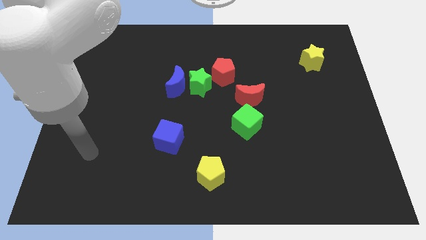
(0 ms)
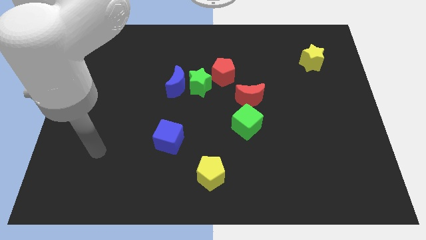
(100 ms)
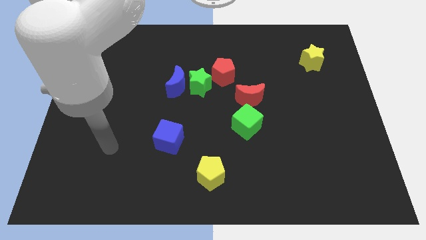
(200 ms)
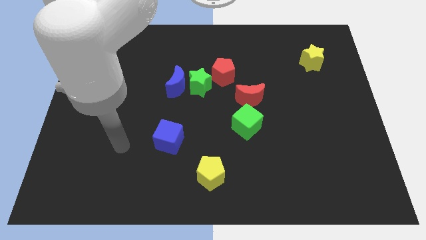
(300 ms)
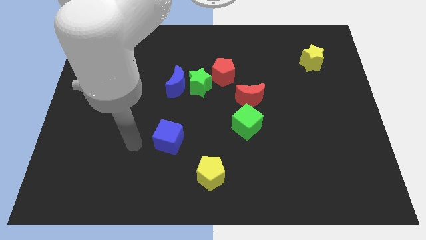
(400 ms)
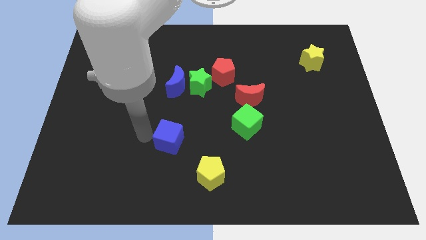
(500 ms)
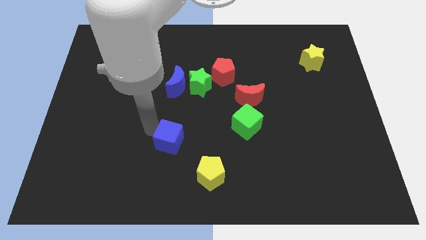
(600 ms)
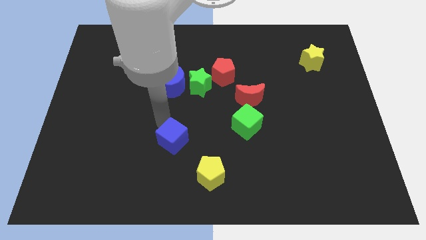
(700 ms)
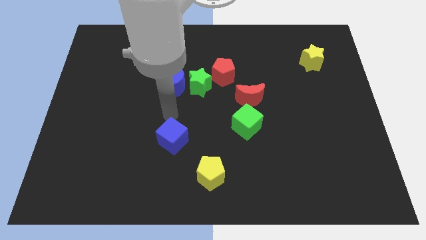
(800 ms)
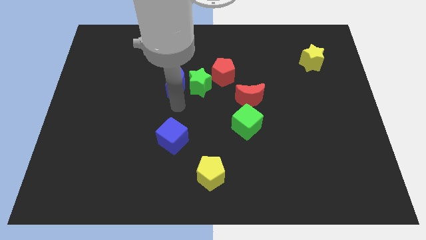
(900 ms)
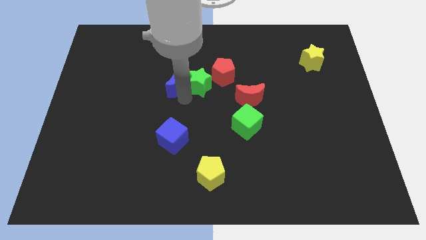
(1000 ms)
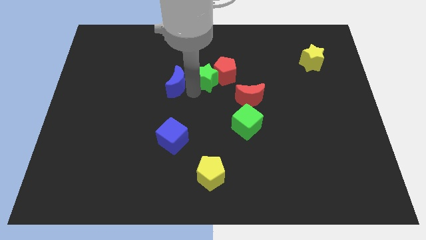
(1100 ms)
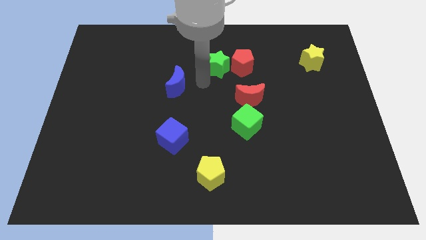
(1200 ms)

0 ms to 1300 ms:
pull the blue moon apart from the green star

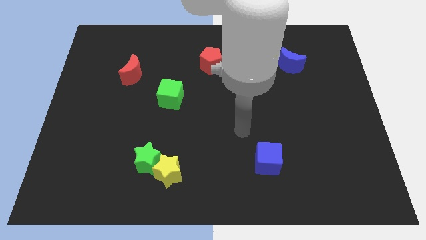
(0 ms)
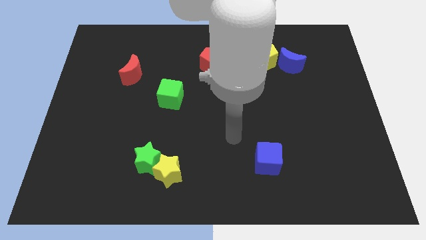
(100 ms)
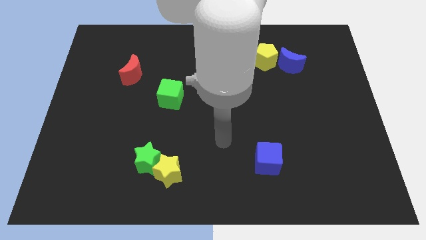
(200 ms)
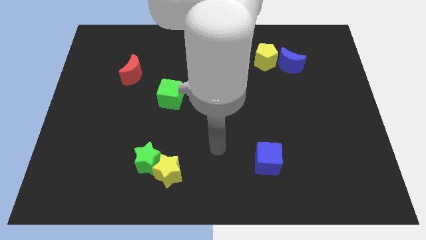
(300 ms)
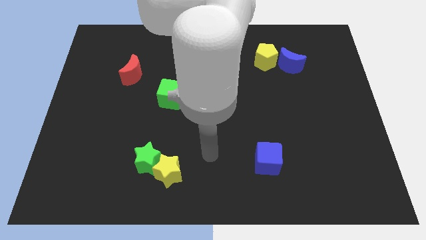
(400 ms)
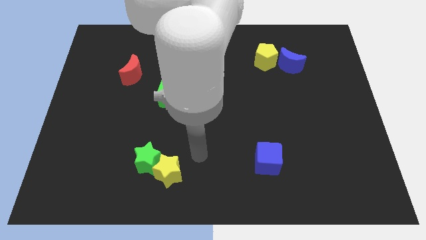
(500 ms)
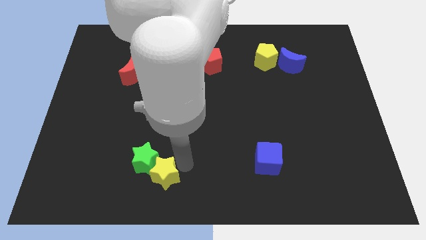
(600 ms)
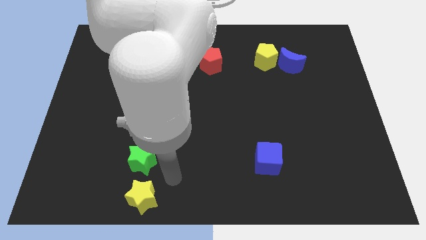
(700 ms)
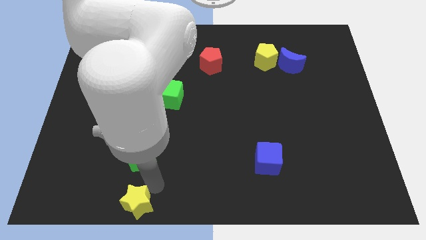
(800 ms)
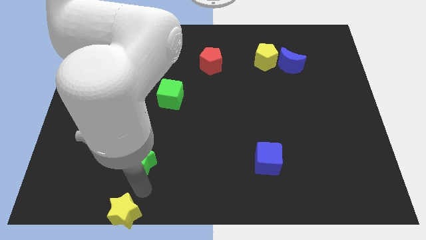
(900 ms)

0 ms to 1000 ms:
separate the green star from the yellow star

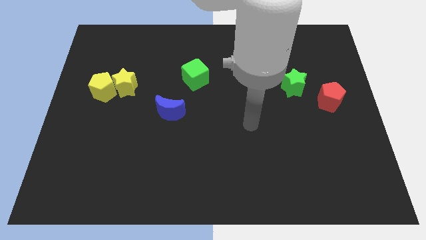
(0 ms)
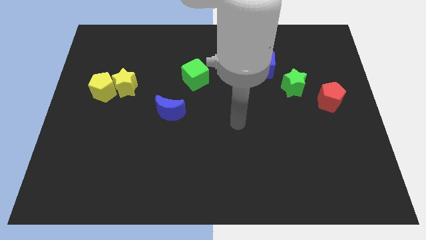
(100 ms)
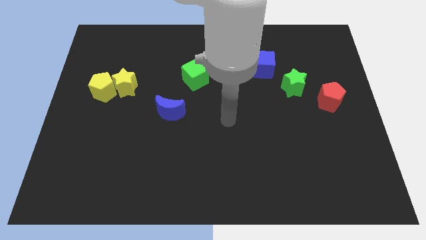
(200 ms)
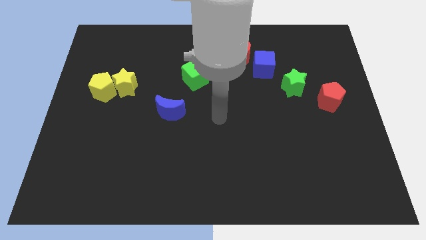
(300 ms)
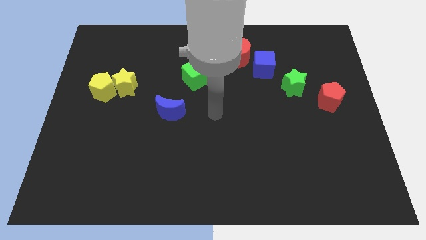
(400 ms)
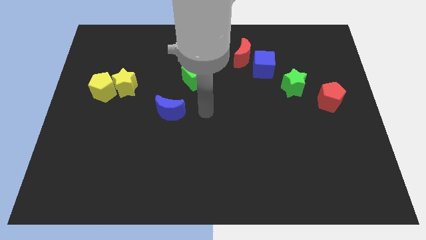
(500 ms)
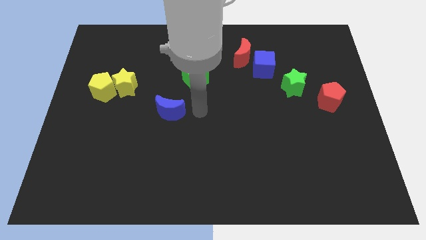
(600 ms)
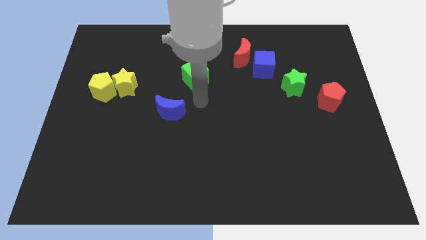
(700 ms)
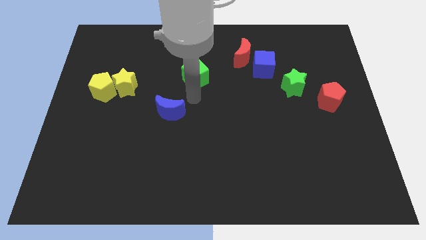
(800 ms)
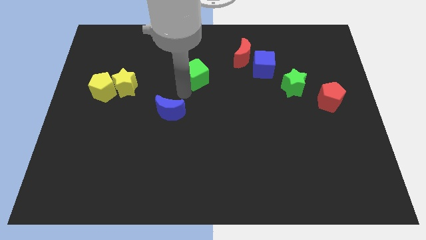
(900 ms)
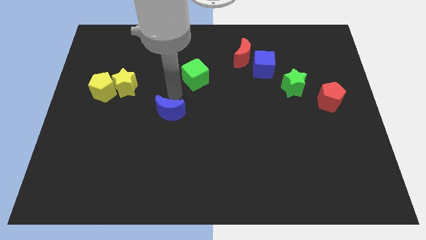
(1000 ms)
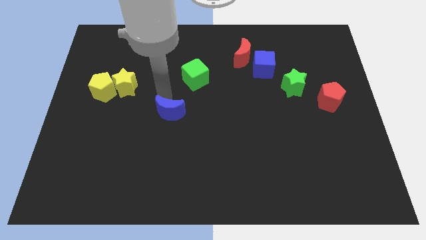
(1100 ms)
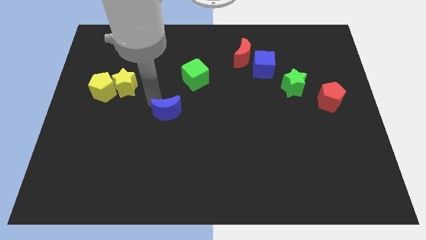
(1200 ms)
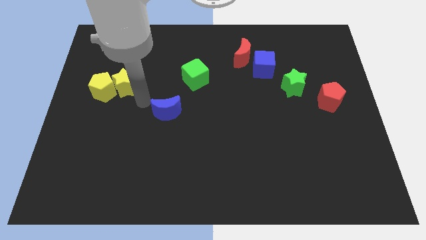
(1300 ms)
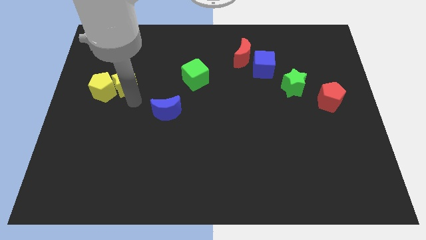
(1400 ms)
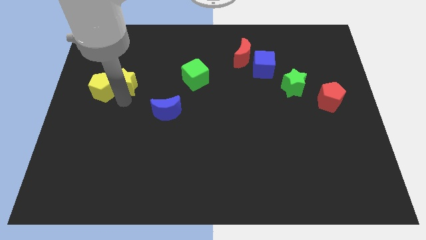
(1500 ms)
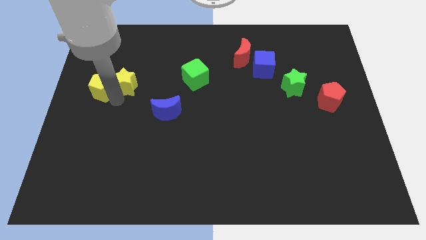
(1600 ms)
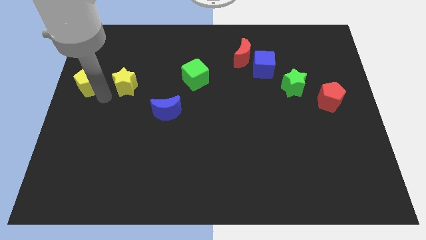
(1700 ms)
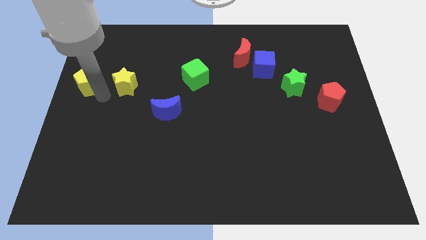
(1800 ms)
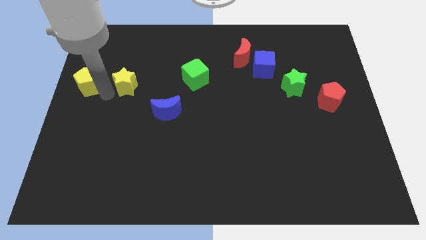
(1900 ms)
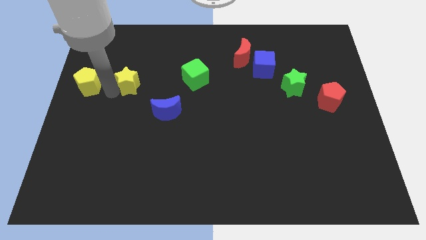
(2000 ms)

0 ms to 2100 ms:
separate the yellow star from the yellow pentagon

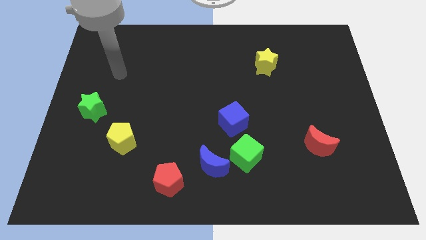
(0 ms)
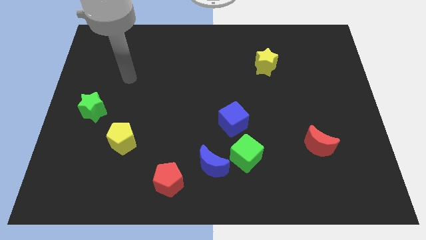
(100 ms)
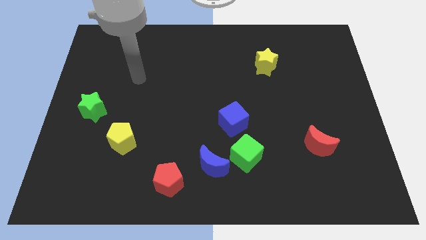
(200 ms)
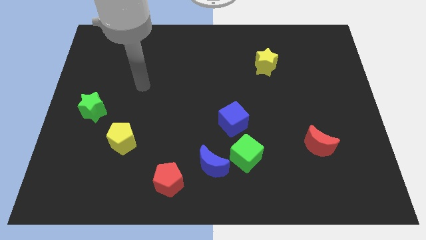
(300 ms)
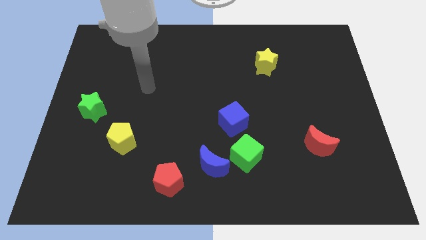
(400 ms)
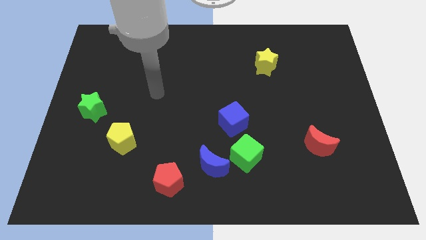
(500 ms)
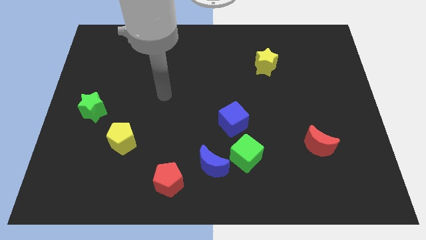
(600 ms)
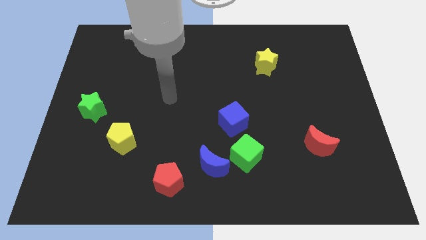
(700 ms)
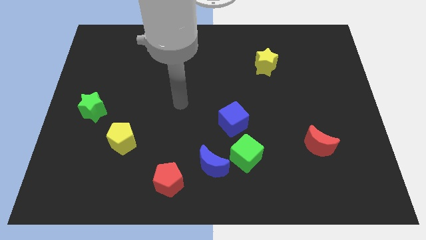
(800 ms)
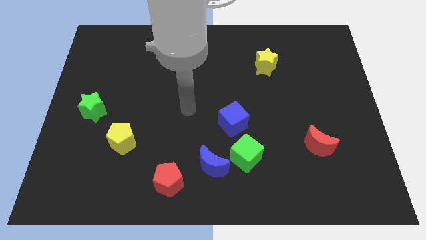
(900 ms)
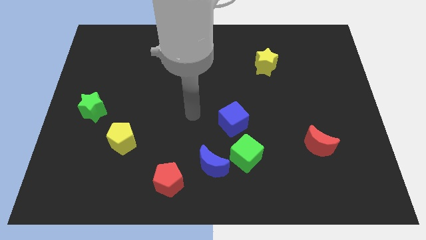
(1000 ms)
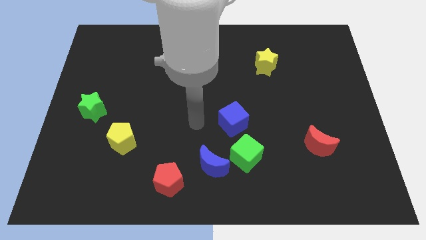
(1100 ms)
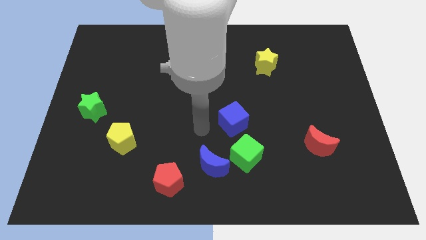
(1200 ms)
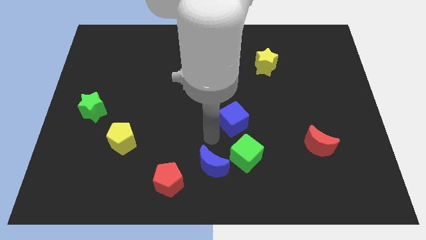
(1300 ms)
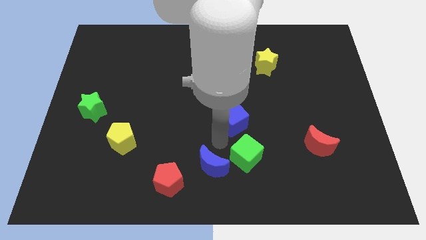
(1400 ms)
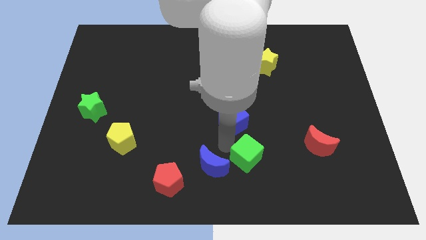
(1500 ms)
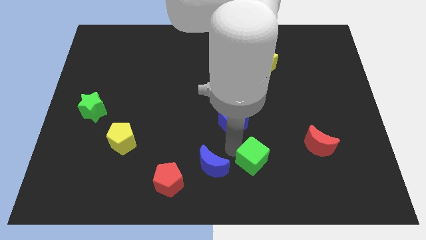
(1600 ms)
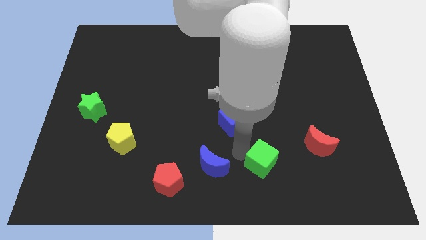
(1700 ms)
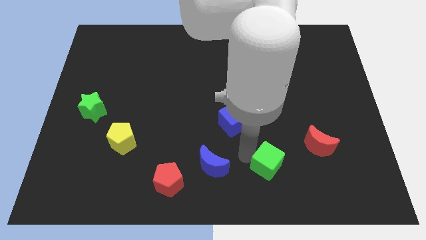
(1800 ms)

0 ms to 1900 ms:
pull the green cube apart from the blue moon and blue cube

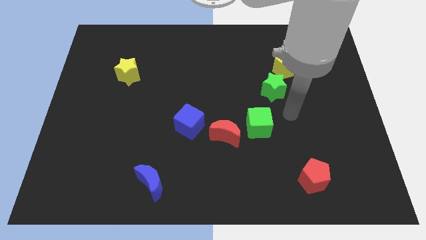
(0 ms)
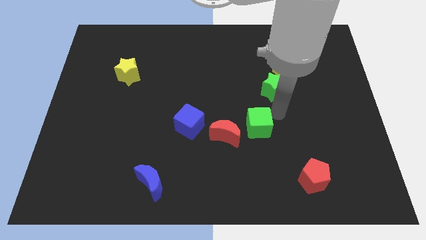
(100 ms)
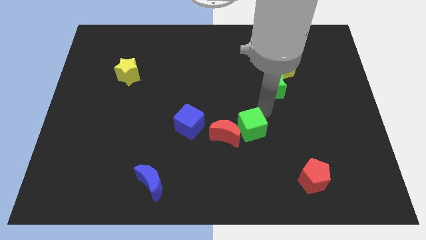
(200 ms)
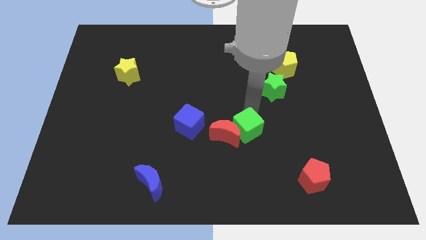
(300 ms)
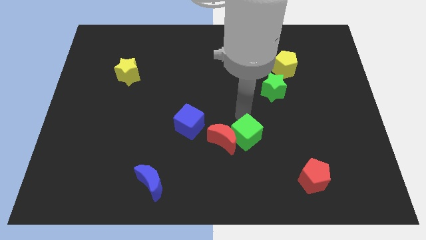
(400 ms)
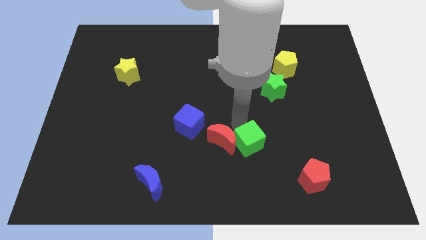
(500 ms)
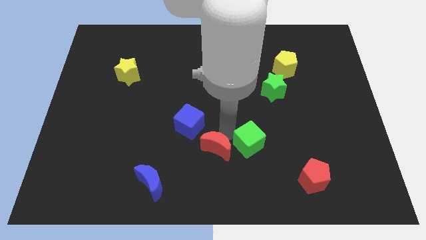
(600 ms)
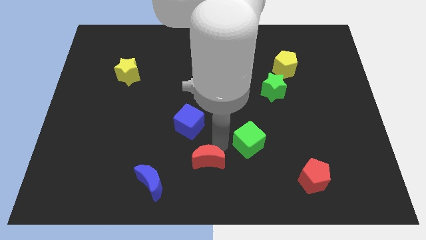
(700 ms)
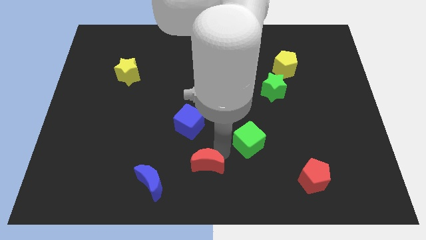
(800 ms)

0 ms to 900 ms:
separate the green cube from the red moon

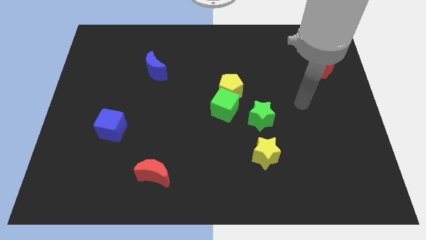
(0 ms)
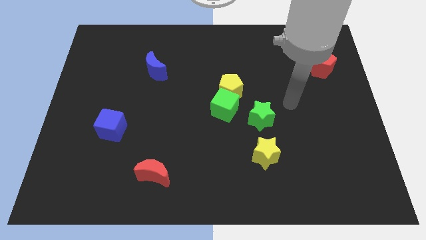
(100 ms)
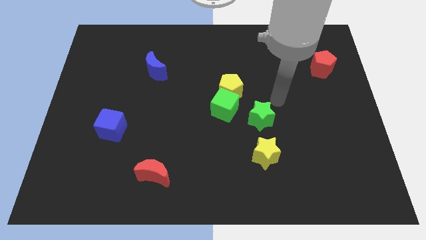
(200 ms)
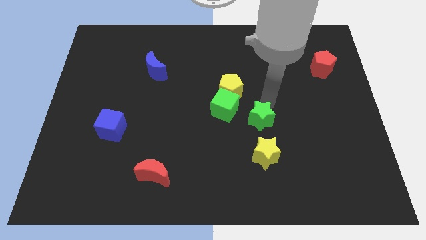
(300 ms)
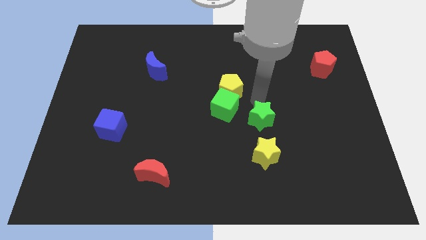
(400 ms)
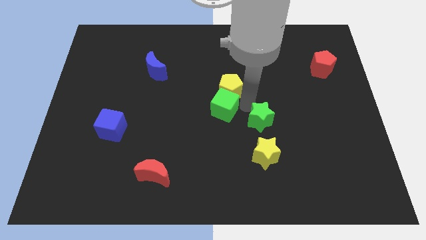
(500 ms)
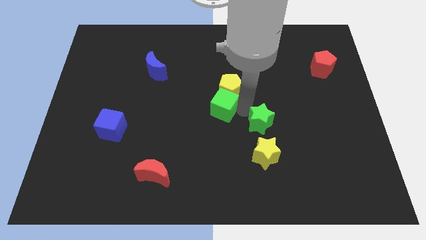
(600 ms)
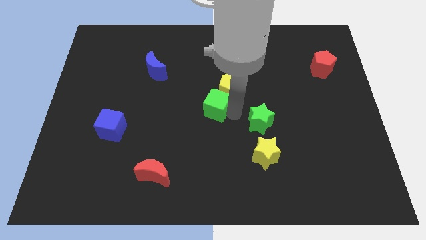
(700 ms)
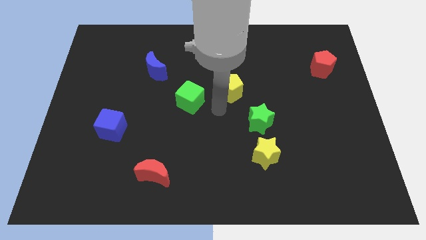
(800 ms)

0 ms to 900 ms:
separate the yellow pentagon from the green cube

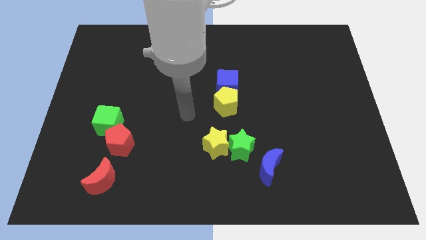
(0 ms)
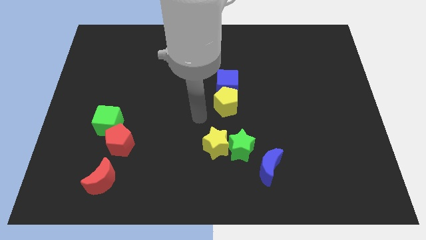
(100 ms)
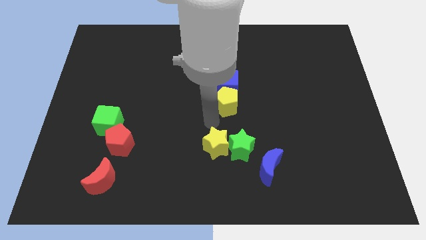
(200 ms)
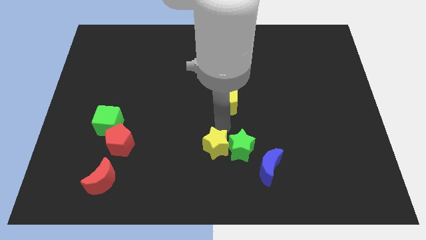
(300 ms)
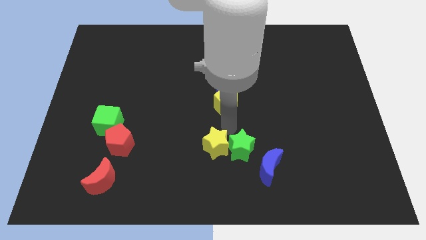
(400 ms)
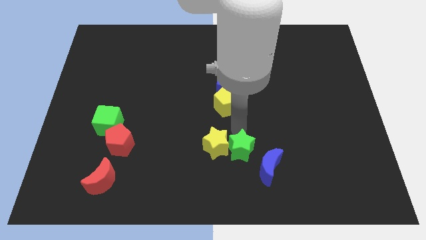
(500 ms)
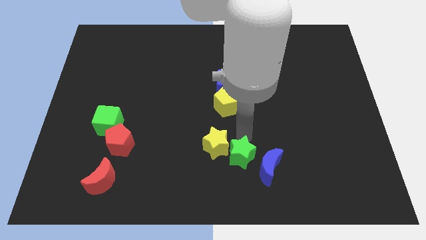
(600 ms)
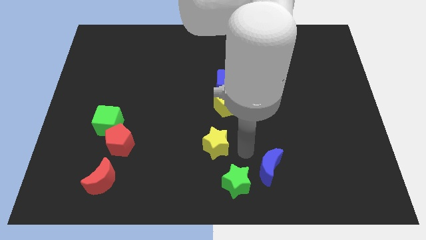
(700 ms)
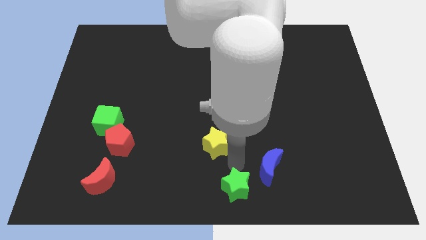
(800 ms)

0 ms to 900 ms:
separate the yellow star from the green star

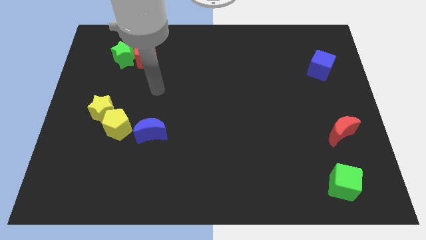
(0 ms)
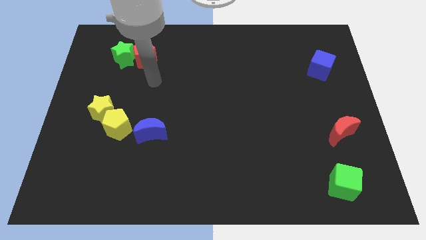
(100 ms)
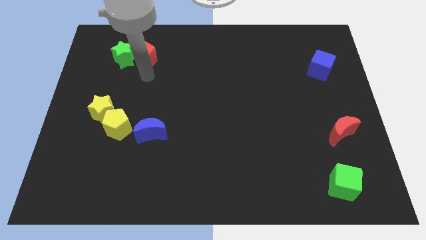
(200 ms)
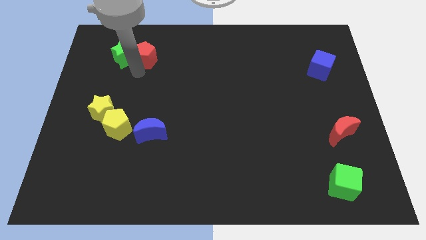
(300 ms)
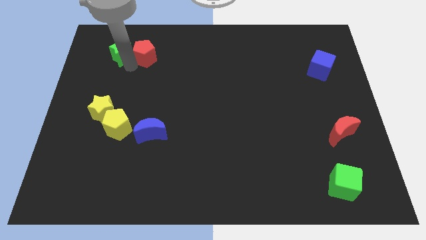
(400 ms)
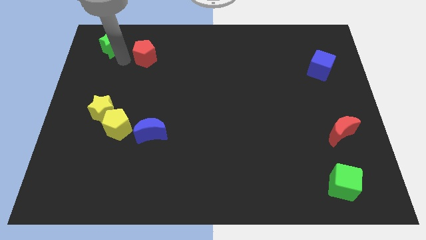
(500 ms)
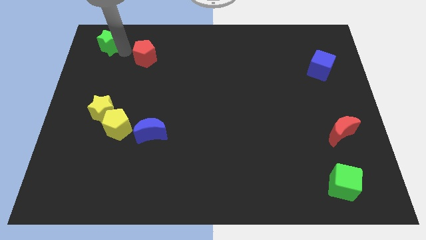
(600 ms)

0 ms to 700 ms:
separate the red pentagon from the green star
